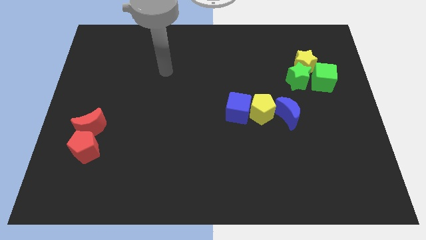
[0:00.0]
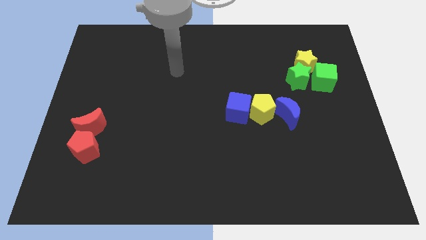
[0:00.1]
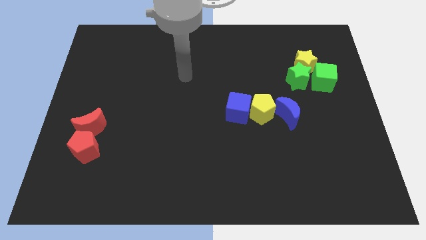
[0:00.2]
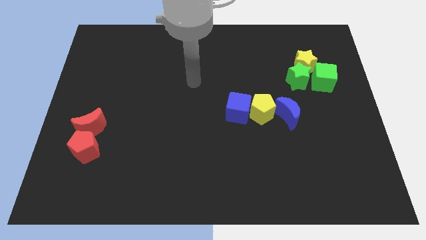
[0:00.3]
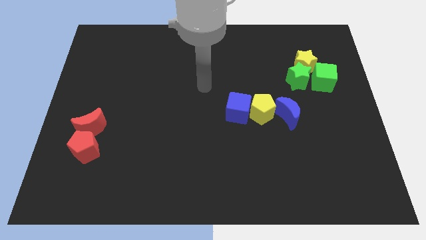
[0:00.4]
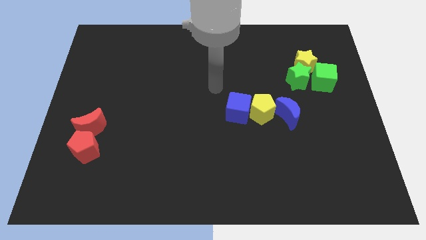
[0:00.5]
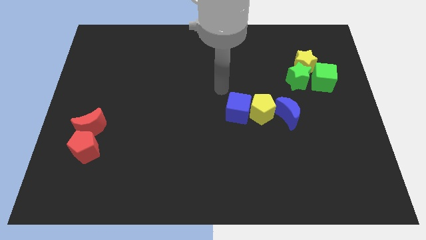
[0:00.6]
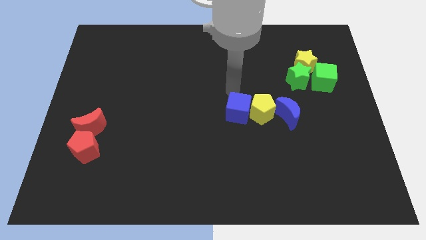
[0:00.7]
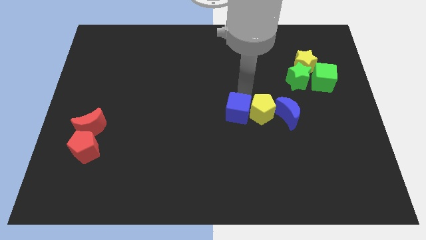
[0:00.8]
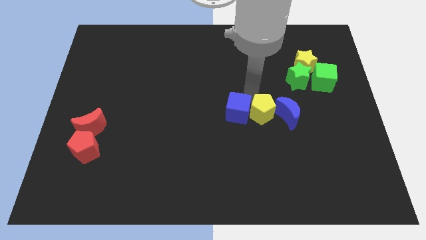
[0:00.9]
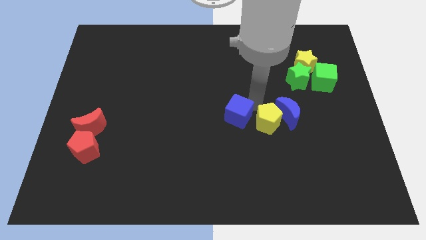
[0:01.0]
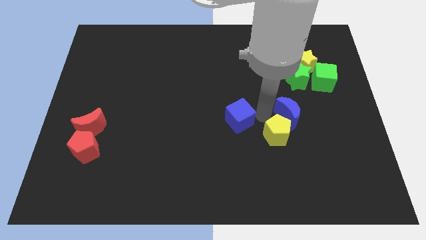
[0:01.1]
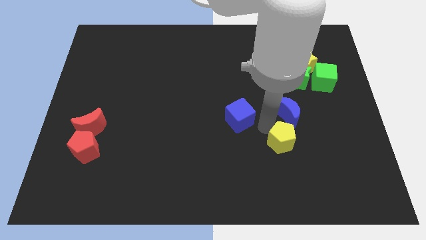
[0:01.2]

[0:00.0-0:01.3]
move the blue cube away from the yellow pentagon

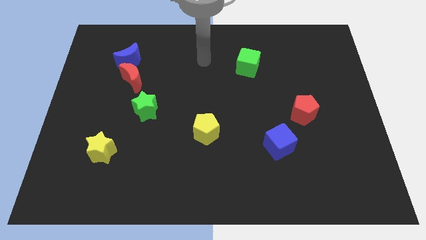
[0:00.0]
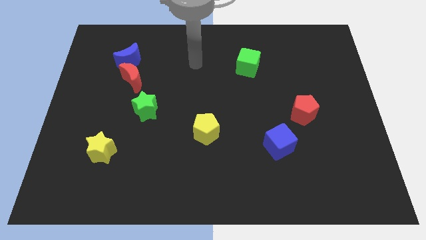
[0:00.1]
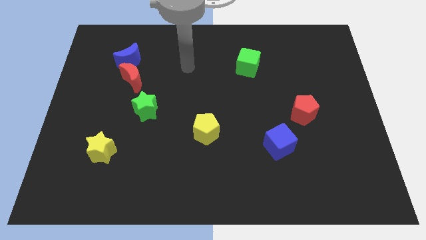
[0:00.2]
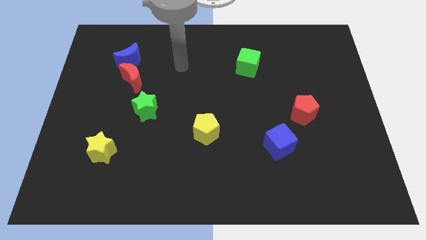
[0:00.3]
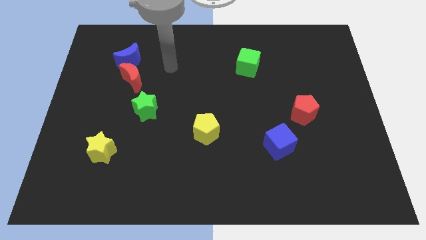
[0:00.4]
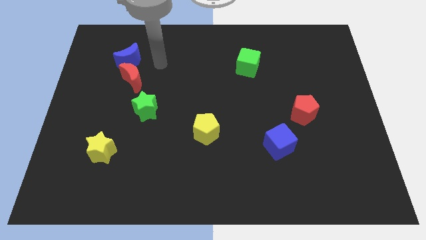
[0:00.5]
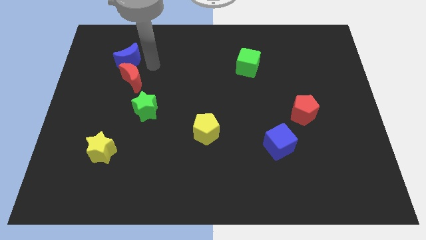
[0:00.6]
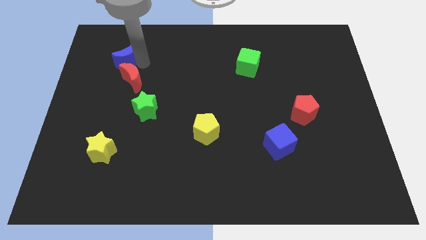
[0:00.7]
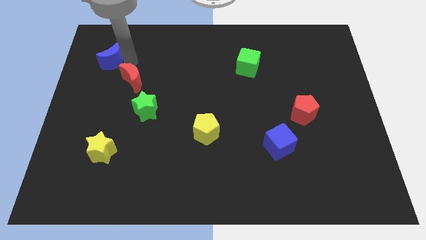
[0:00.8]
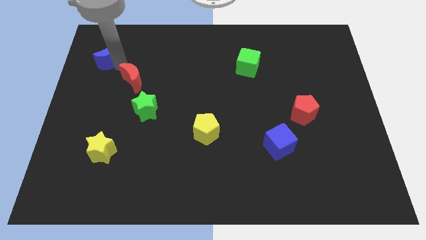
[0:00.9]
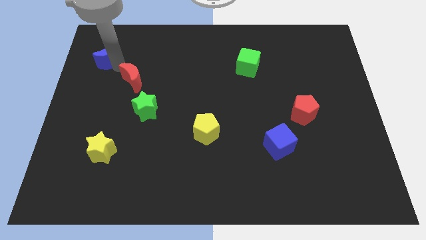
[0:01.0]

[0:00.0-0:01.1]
separate the red moon from the blue moon

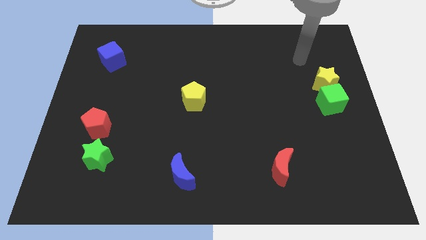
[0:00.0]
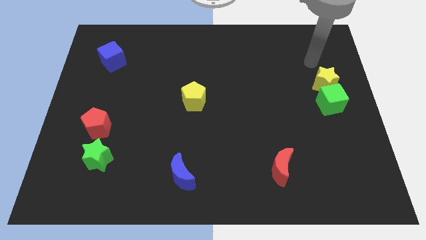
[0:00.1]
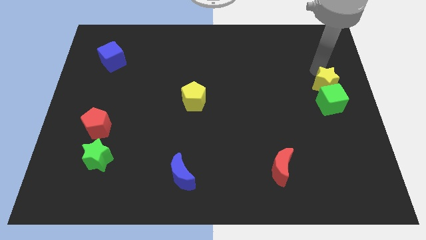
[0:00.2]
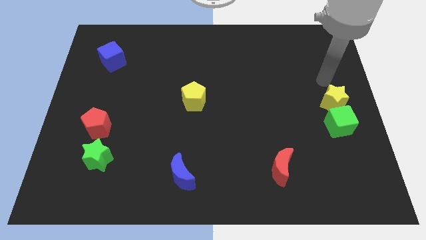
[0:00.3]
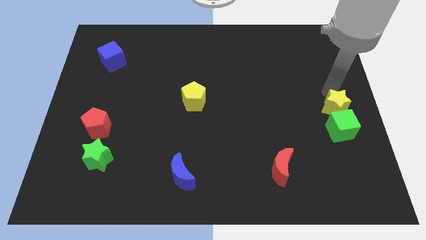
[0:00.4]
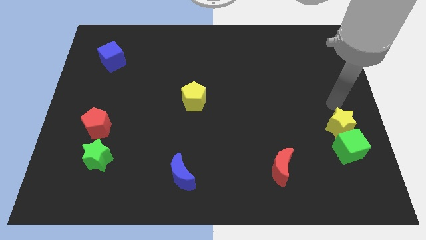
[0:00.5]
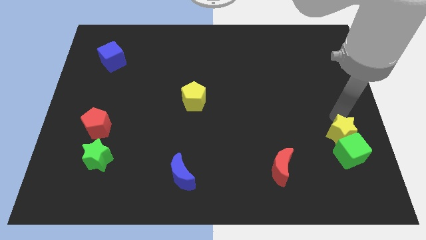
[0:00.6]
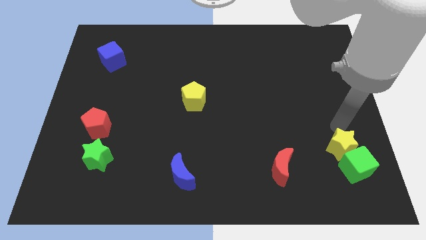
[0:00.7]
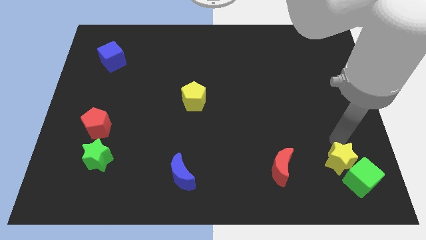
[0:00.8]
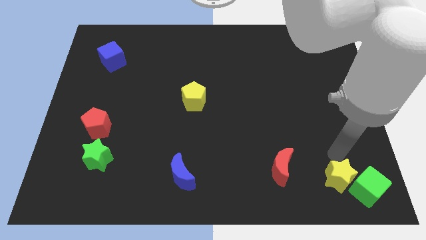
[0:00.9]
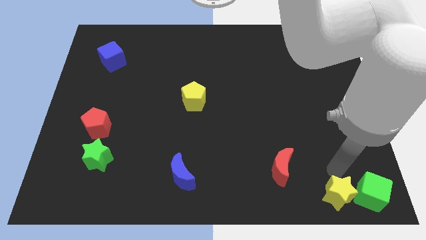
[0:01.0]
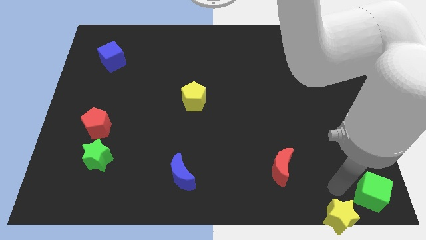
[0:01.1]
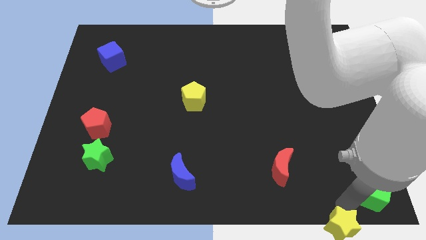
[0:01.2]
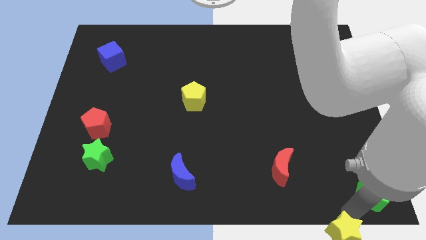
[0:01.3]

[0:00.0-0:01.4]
move the green cube away from the yellow star

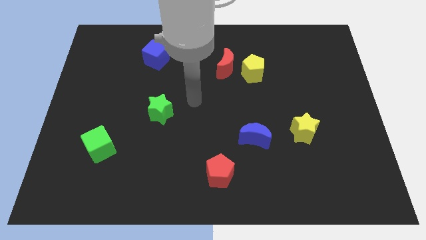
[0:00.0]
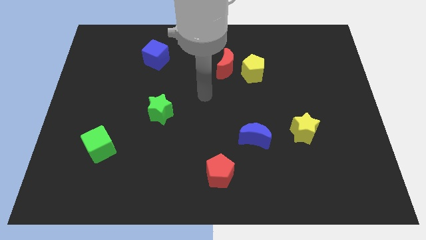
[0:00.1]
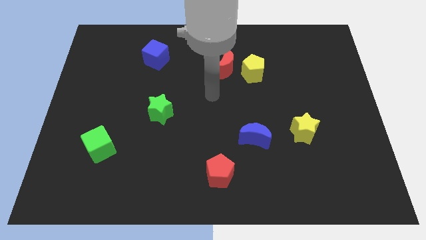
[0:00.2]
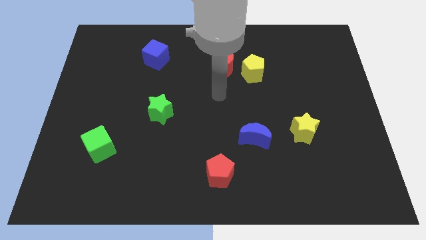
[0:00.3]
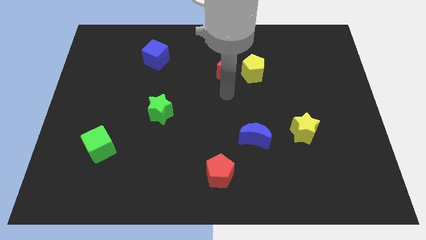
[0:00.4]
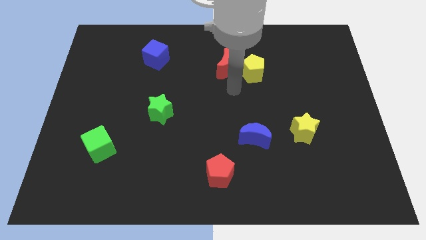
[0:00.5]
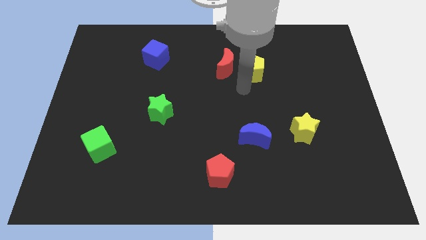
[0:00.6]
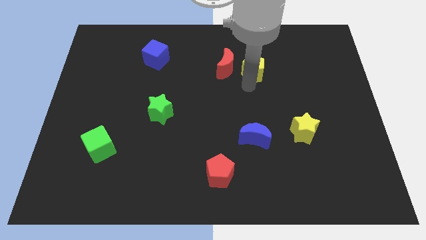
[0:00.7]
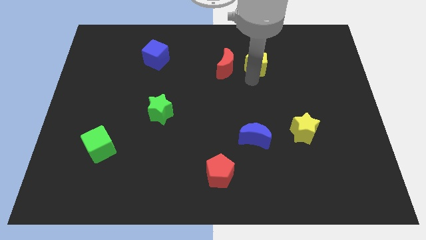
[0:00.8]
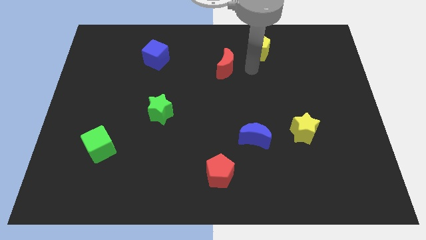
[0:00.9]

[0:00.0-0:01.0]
pull the red moon apart from the yellow pentagon

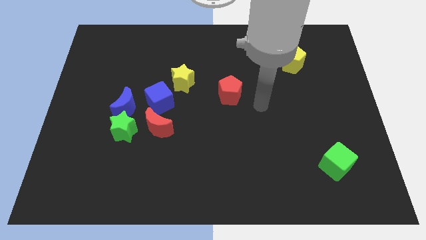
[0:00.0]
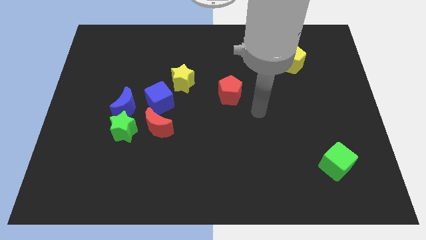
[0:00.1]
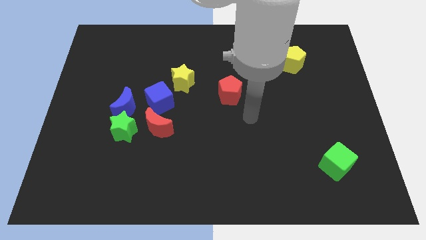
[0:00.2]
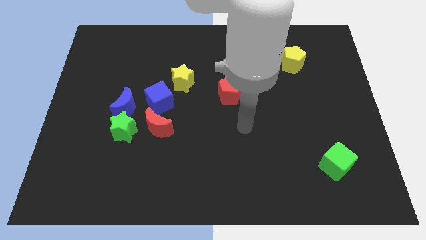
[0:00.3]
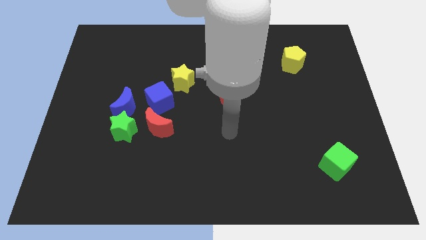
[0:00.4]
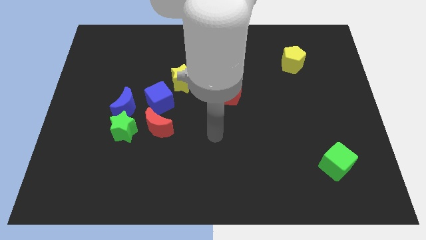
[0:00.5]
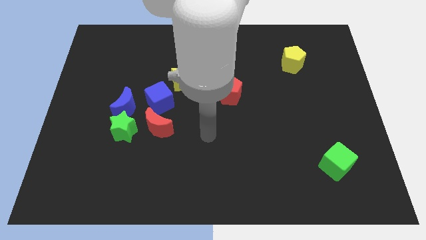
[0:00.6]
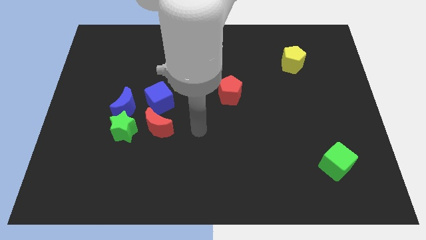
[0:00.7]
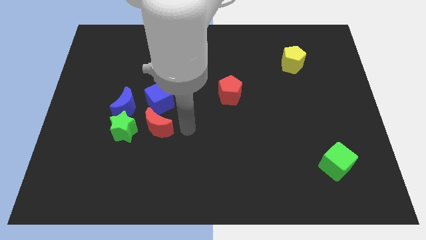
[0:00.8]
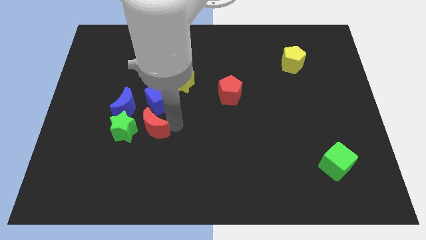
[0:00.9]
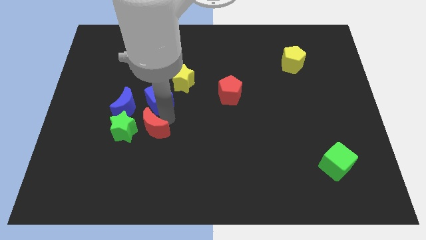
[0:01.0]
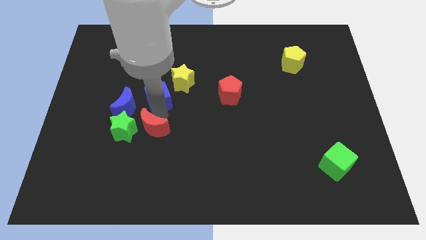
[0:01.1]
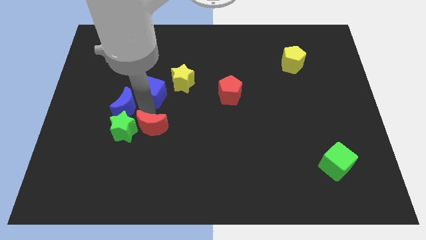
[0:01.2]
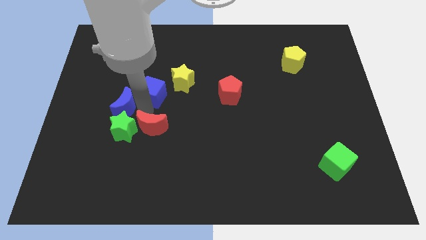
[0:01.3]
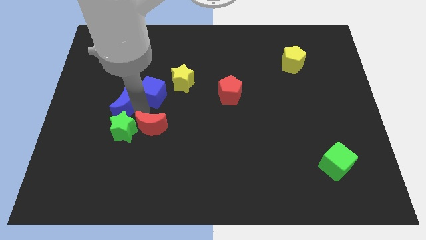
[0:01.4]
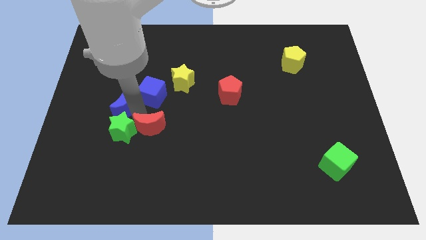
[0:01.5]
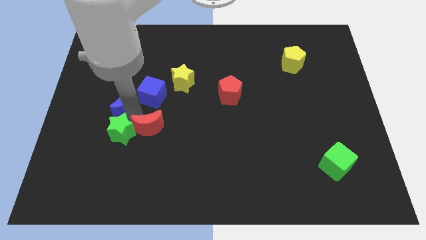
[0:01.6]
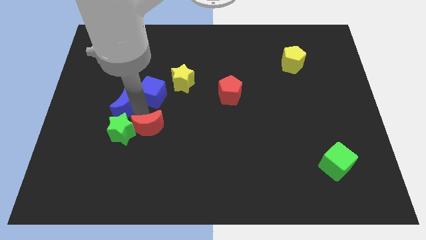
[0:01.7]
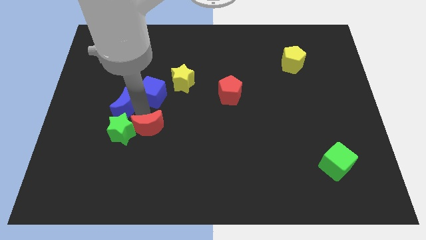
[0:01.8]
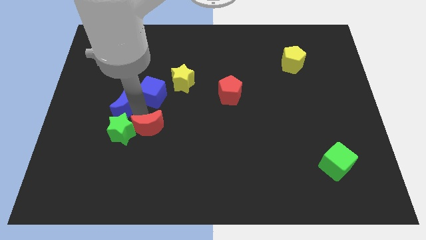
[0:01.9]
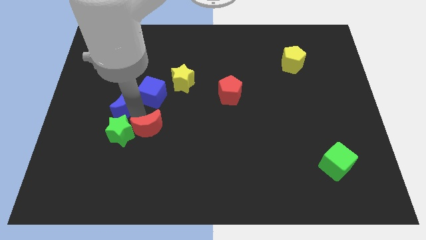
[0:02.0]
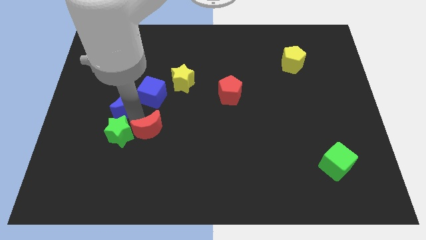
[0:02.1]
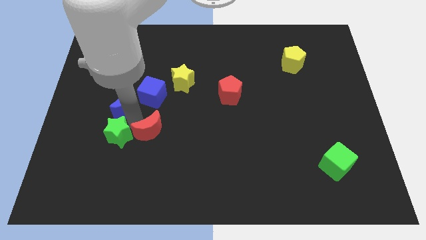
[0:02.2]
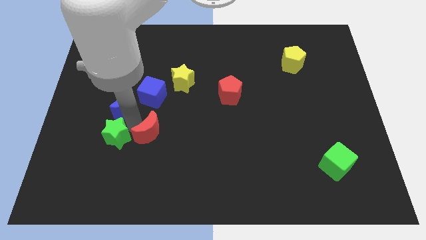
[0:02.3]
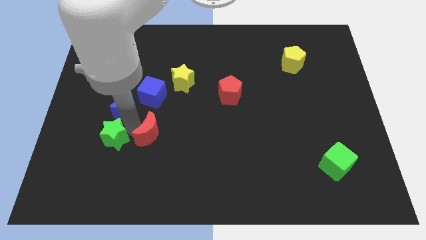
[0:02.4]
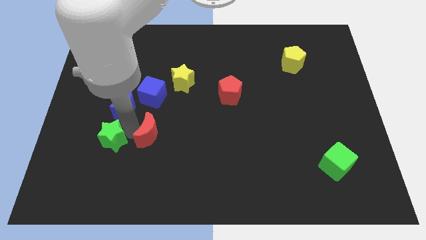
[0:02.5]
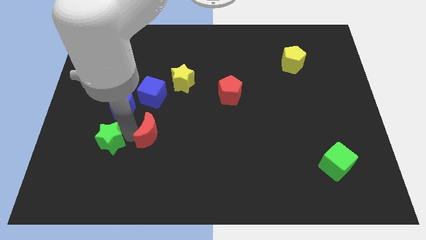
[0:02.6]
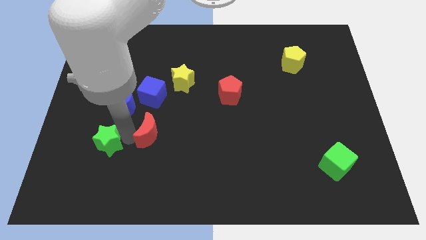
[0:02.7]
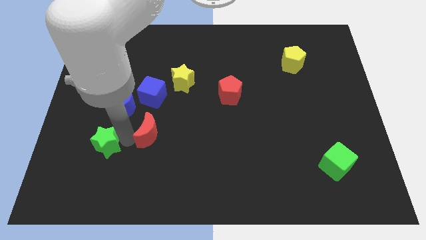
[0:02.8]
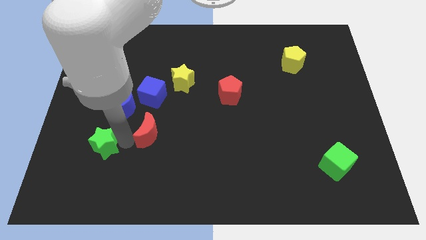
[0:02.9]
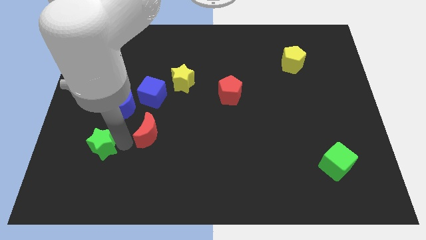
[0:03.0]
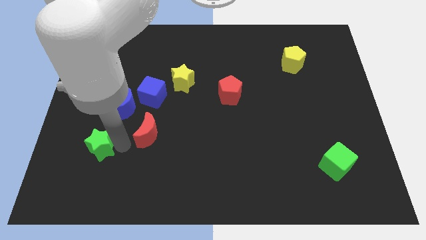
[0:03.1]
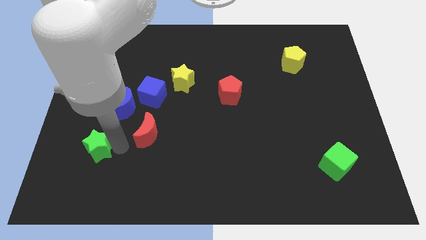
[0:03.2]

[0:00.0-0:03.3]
pull the green star apart from the blue moon and red moon

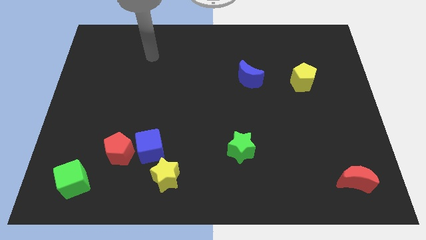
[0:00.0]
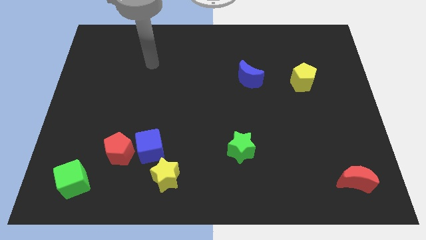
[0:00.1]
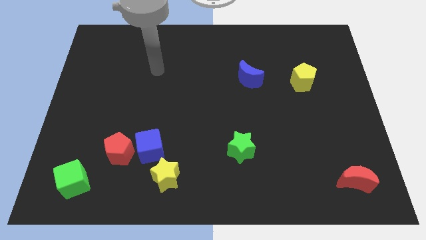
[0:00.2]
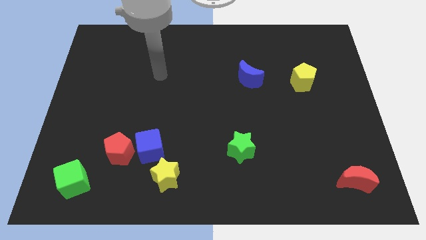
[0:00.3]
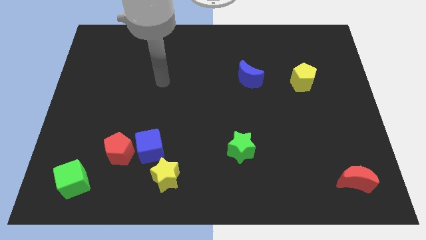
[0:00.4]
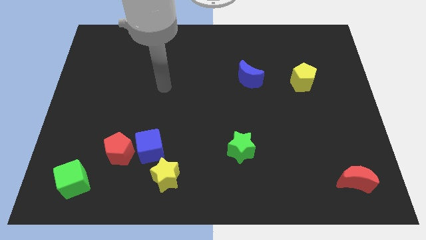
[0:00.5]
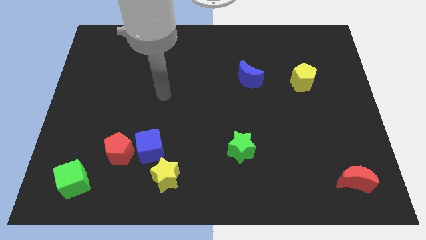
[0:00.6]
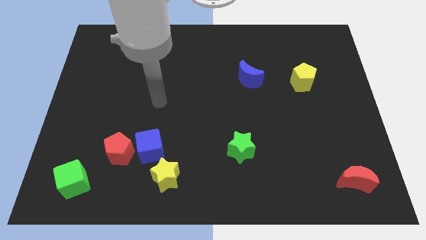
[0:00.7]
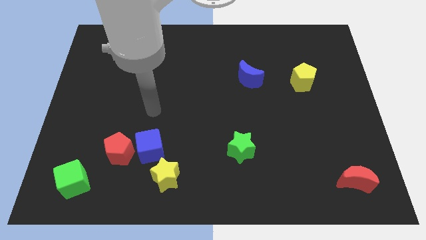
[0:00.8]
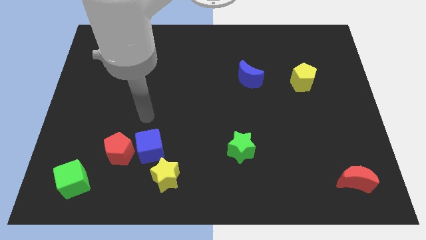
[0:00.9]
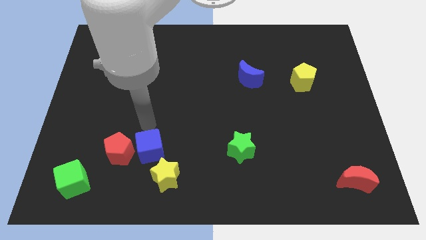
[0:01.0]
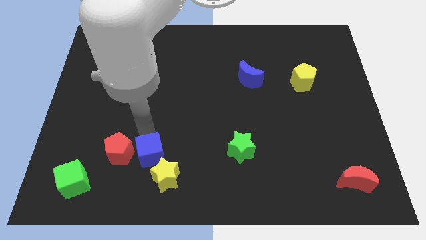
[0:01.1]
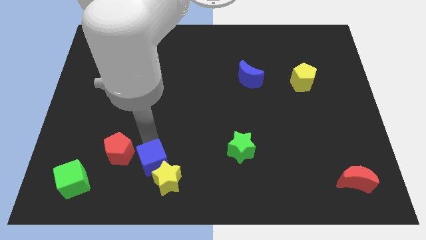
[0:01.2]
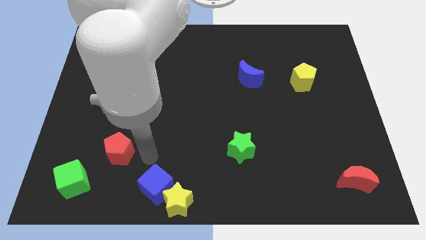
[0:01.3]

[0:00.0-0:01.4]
separate the red pentagon from the blue cube
